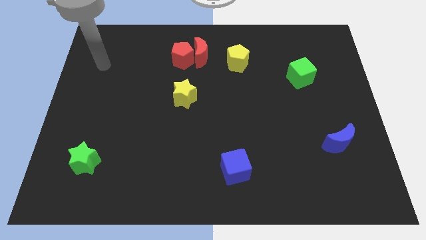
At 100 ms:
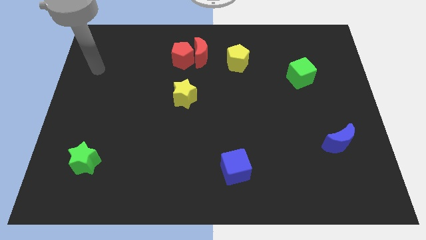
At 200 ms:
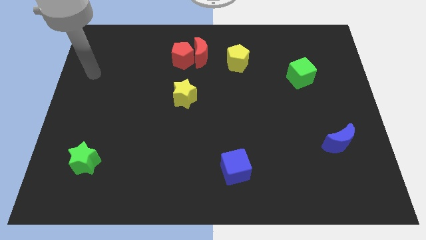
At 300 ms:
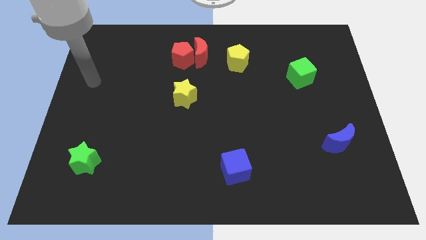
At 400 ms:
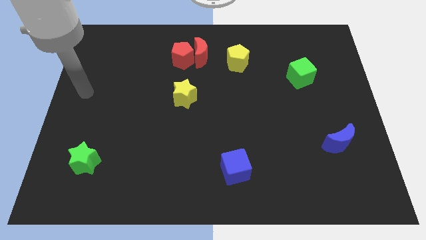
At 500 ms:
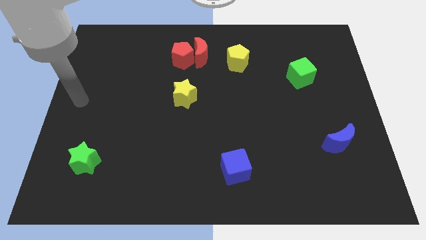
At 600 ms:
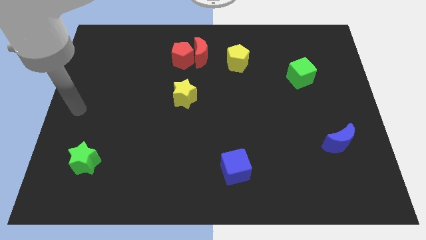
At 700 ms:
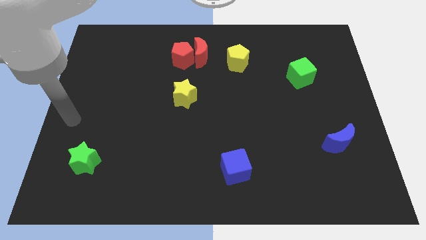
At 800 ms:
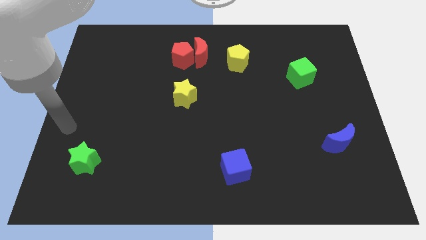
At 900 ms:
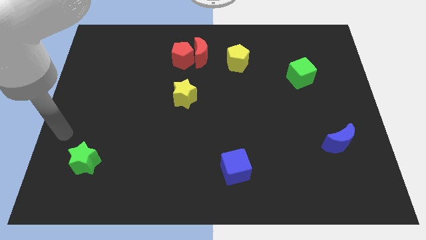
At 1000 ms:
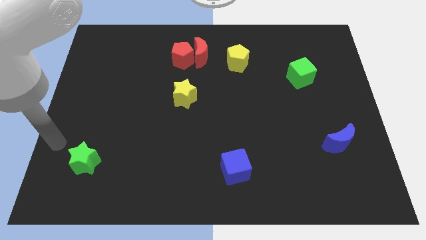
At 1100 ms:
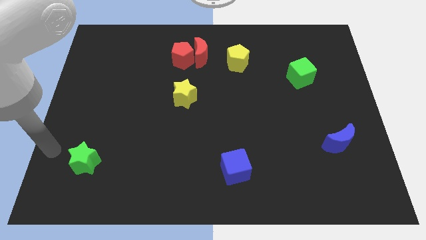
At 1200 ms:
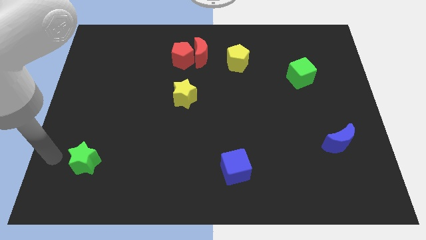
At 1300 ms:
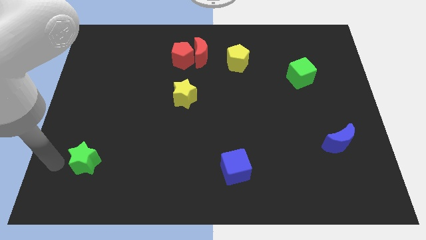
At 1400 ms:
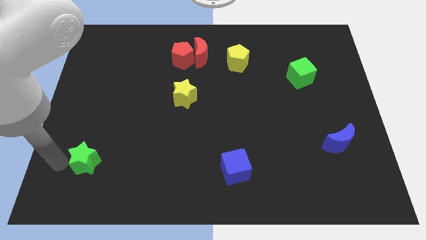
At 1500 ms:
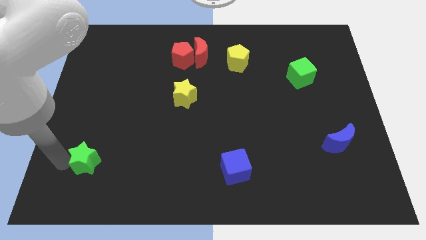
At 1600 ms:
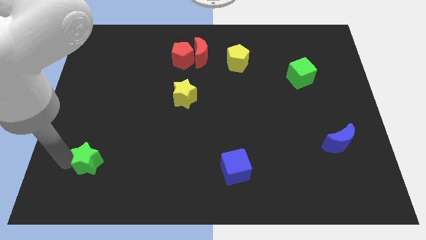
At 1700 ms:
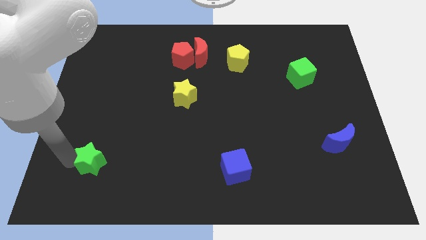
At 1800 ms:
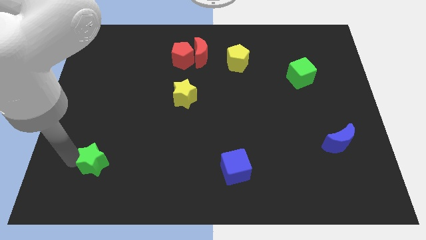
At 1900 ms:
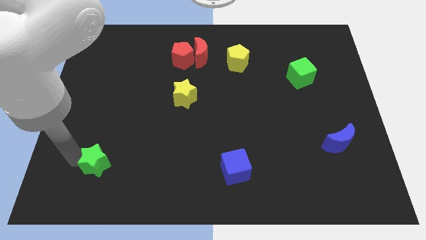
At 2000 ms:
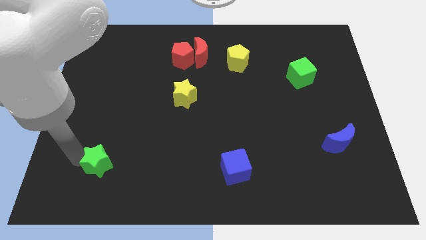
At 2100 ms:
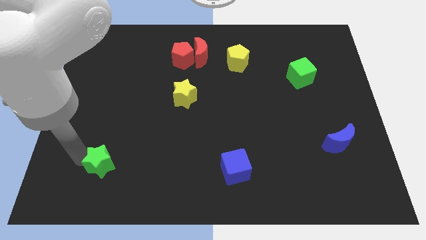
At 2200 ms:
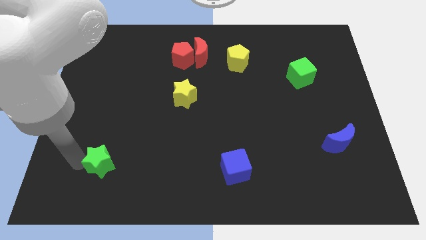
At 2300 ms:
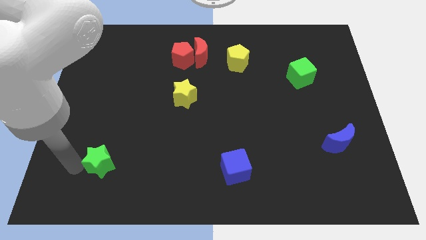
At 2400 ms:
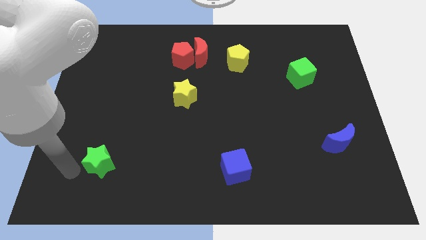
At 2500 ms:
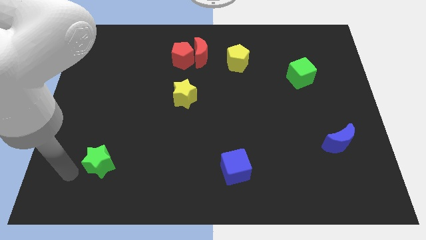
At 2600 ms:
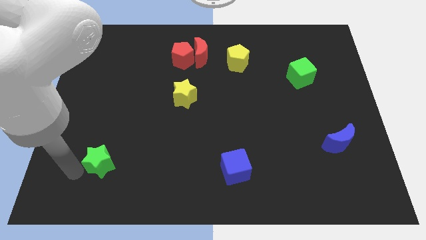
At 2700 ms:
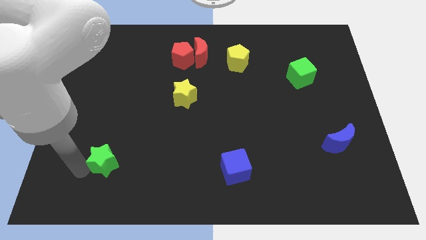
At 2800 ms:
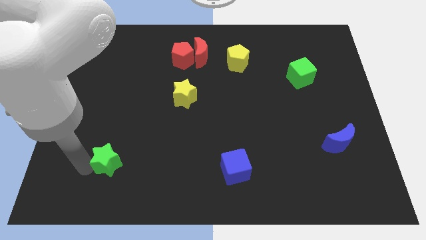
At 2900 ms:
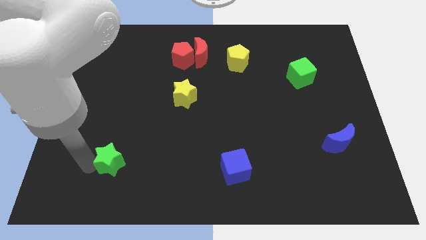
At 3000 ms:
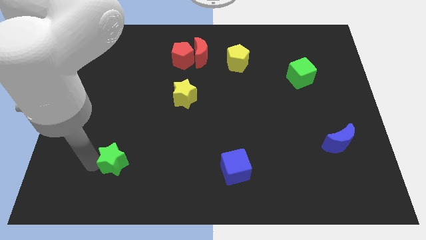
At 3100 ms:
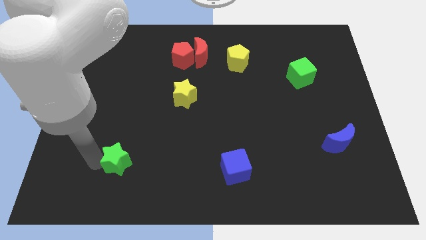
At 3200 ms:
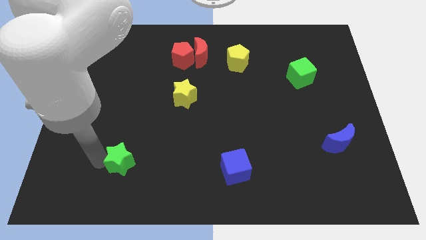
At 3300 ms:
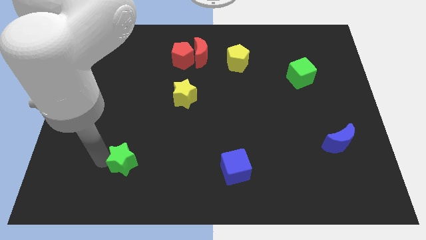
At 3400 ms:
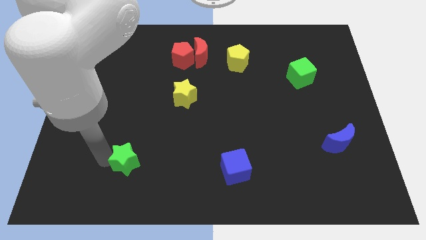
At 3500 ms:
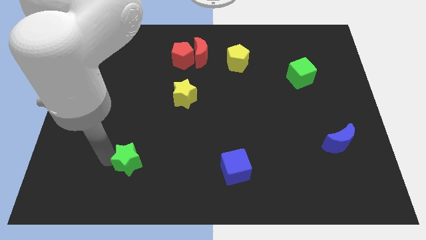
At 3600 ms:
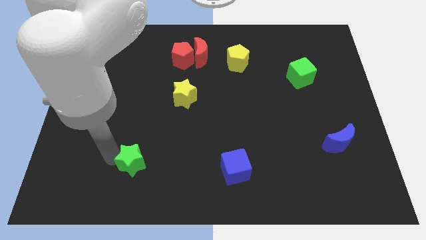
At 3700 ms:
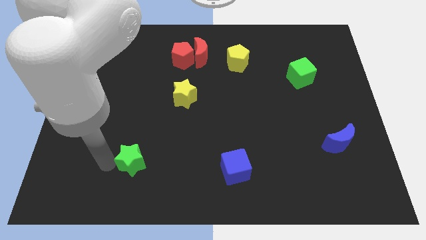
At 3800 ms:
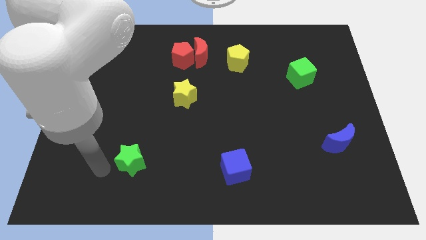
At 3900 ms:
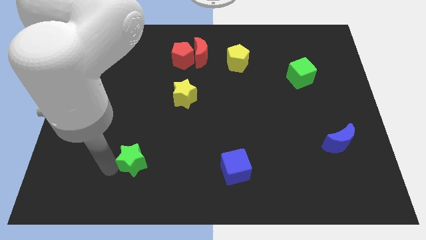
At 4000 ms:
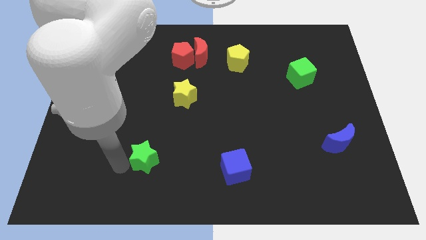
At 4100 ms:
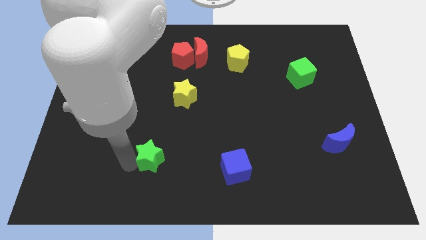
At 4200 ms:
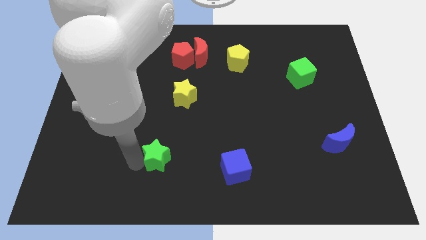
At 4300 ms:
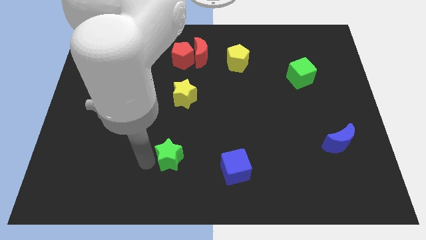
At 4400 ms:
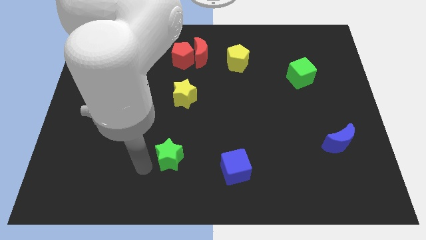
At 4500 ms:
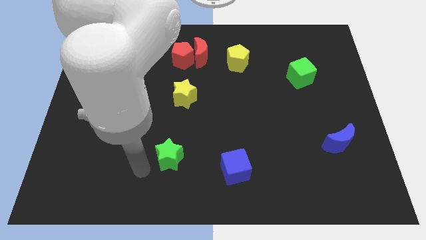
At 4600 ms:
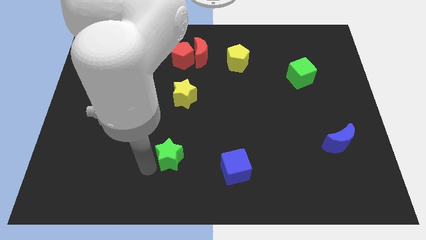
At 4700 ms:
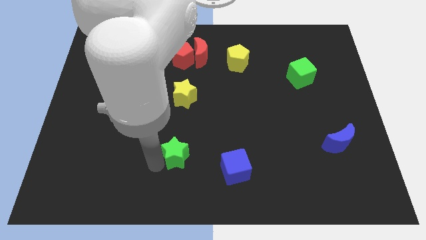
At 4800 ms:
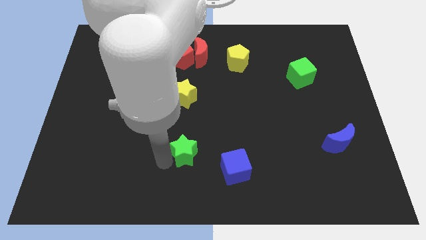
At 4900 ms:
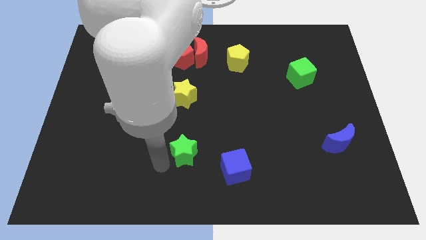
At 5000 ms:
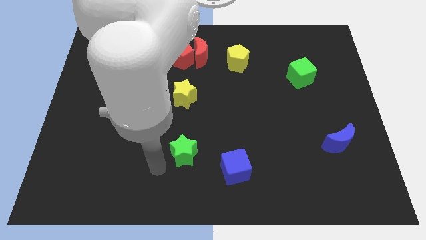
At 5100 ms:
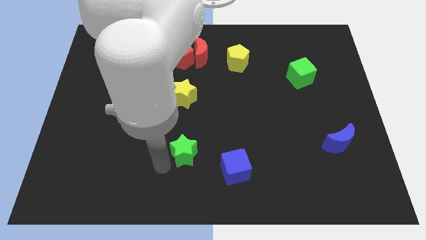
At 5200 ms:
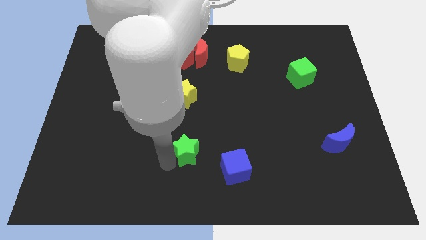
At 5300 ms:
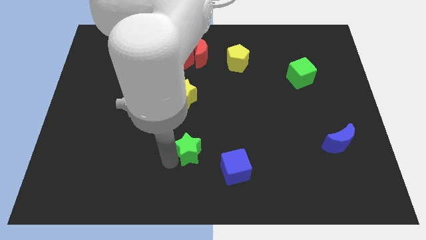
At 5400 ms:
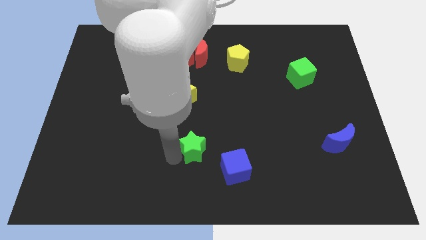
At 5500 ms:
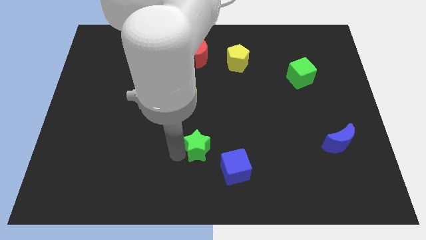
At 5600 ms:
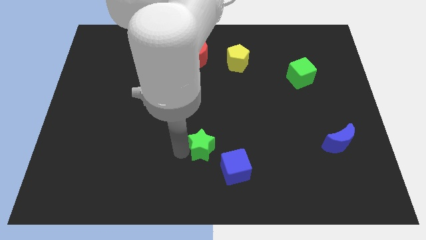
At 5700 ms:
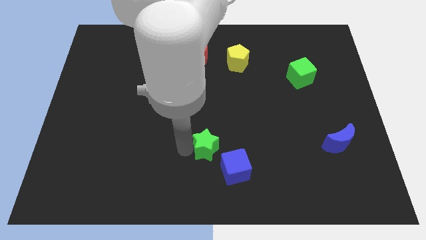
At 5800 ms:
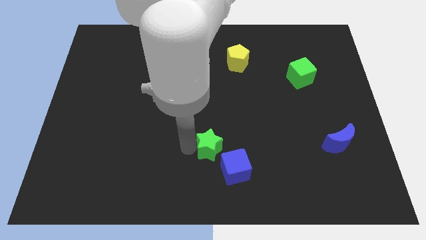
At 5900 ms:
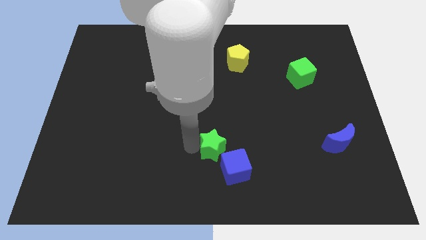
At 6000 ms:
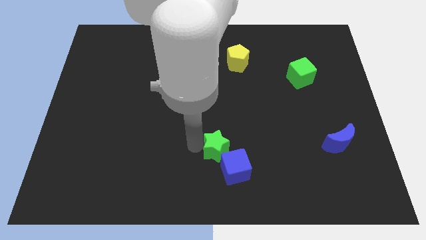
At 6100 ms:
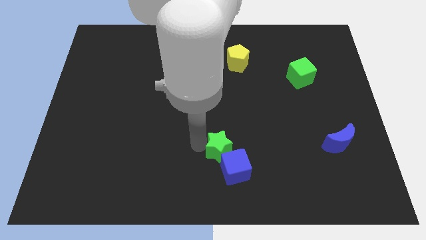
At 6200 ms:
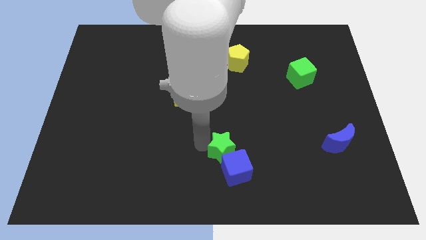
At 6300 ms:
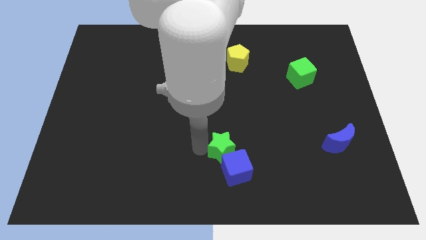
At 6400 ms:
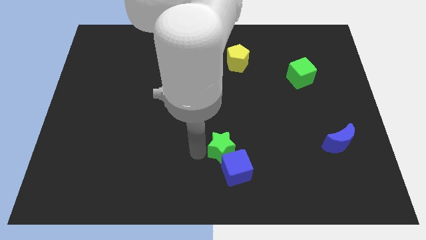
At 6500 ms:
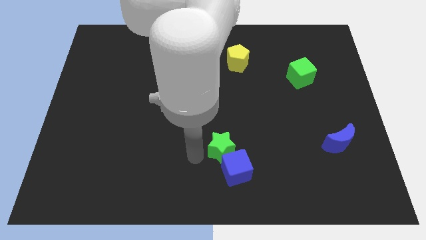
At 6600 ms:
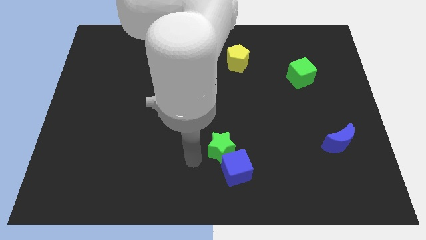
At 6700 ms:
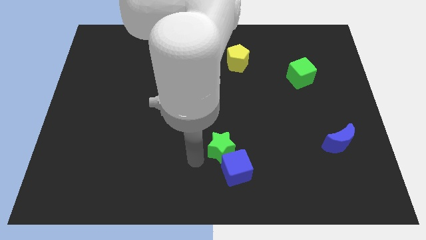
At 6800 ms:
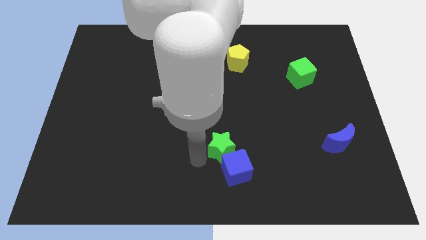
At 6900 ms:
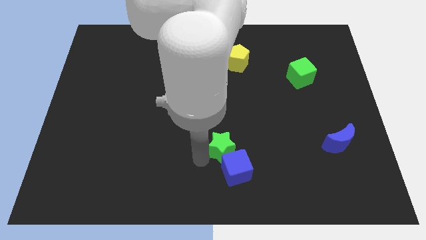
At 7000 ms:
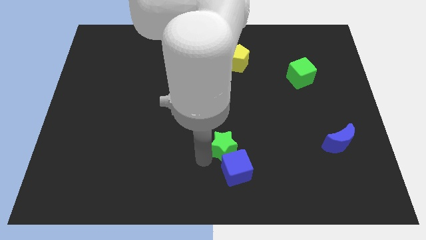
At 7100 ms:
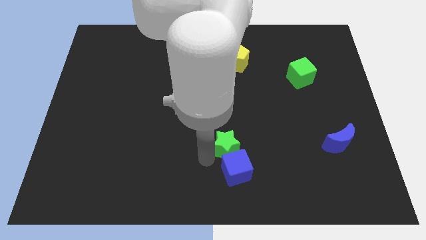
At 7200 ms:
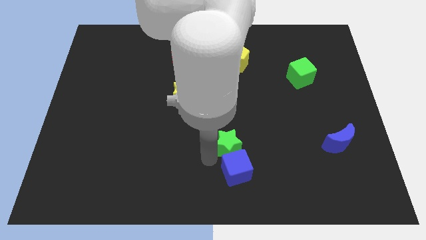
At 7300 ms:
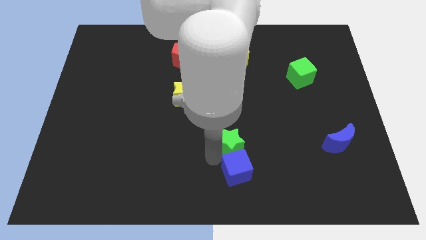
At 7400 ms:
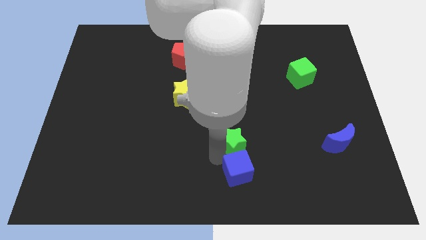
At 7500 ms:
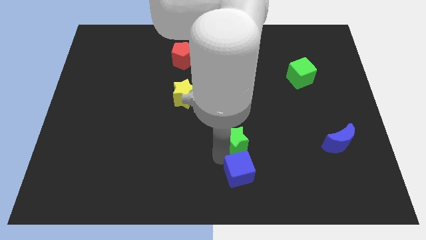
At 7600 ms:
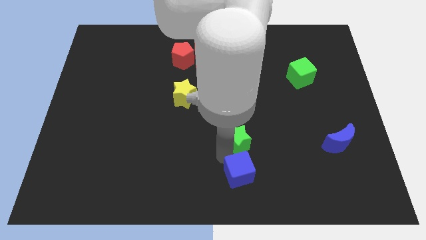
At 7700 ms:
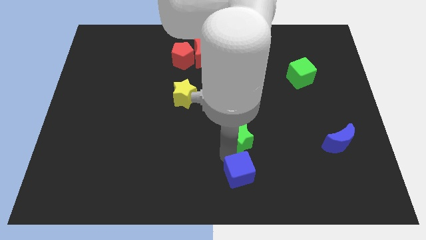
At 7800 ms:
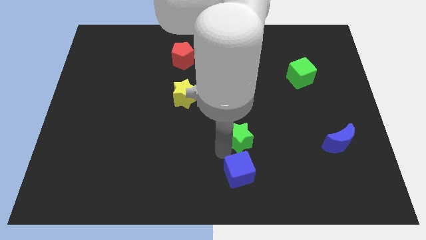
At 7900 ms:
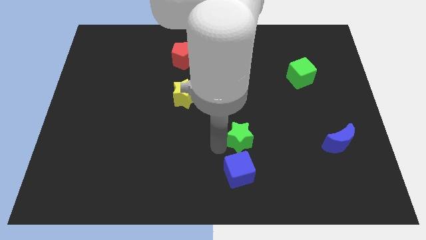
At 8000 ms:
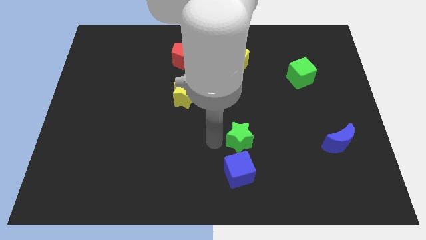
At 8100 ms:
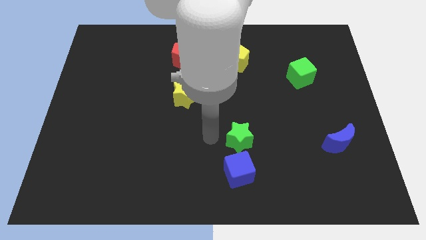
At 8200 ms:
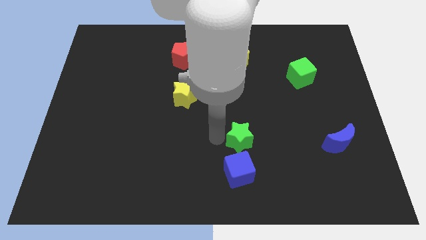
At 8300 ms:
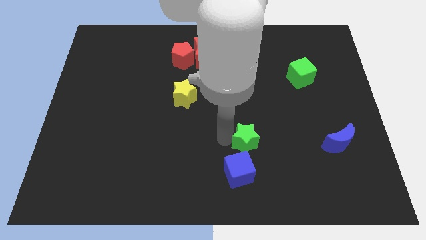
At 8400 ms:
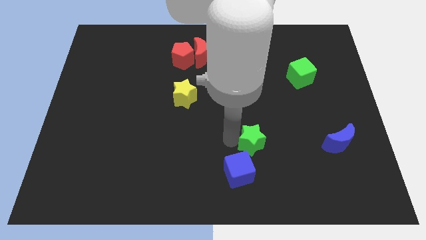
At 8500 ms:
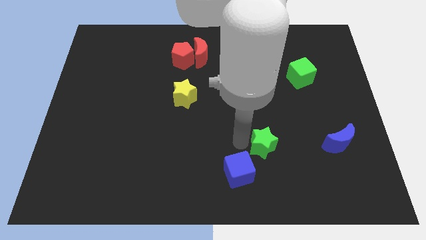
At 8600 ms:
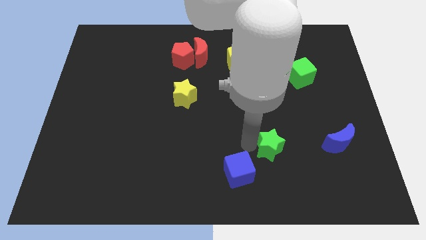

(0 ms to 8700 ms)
slide the green star to the left of the blue moon
